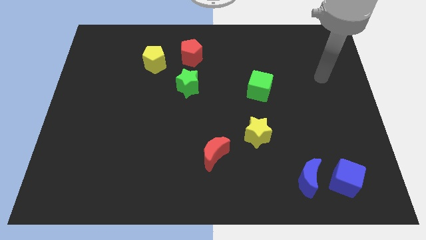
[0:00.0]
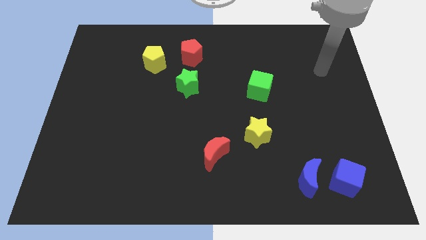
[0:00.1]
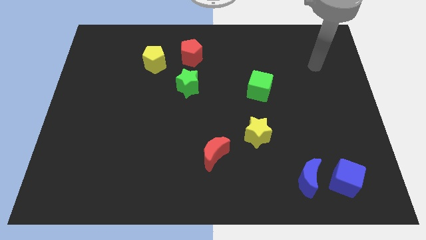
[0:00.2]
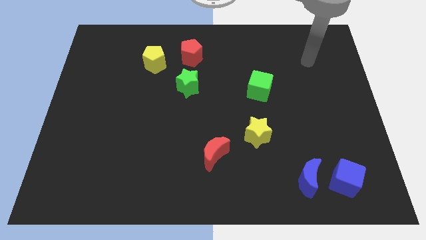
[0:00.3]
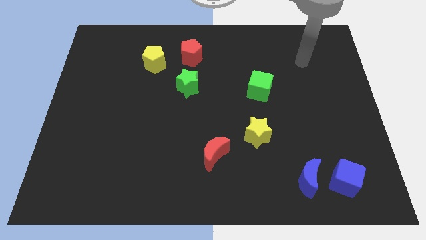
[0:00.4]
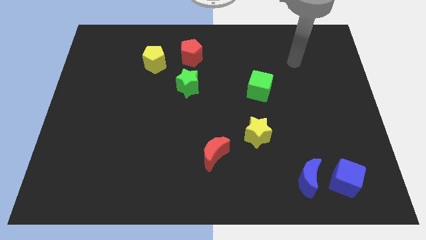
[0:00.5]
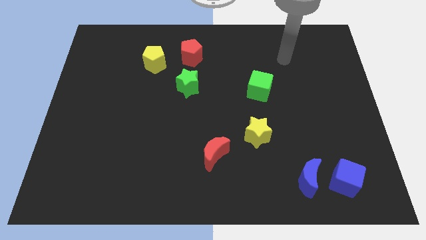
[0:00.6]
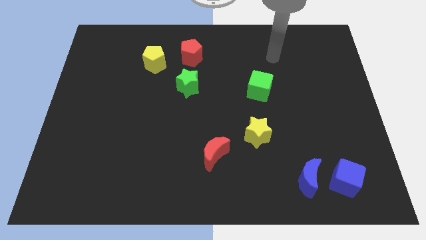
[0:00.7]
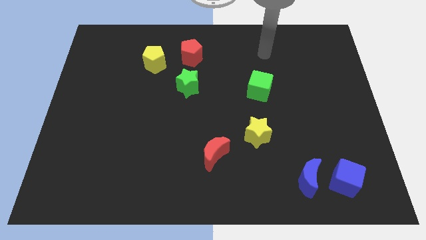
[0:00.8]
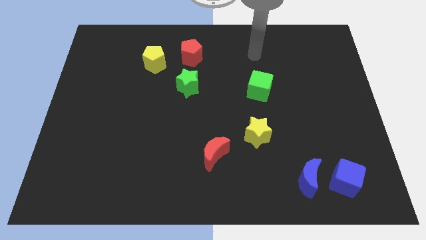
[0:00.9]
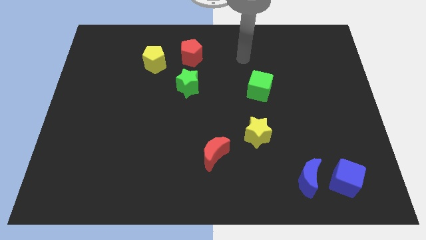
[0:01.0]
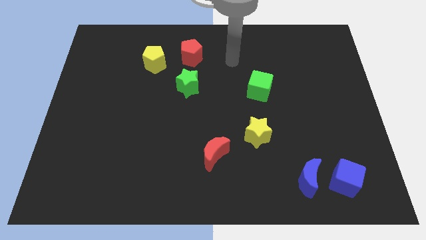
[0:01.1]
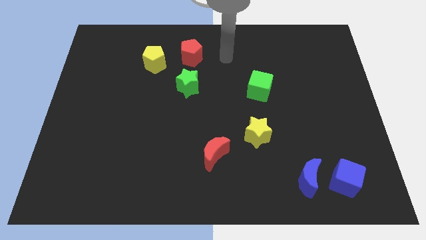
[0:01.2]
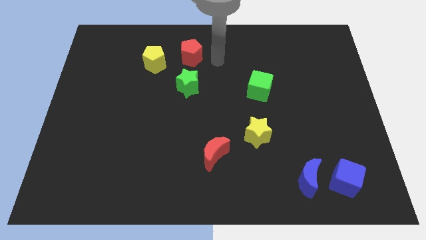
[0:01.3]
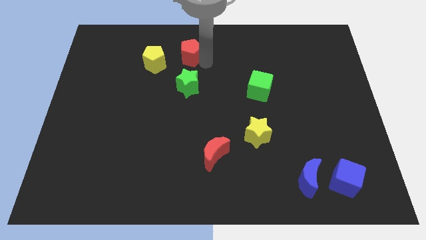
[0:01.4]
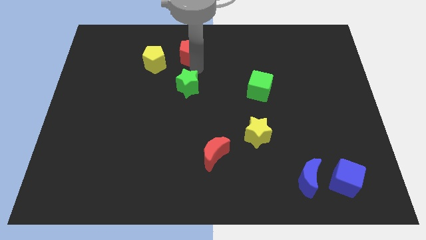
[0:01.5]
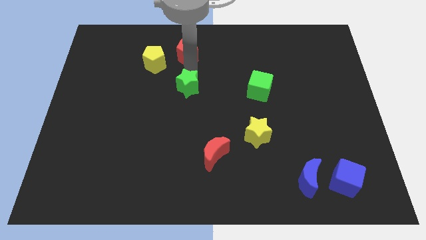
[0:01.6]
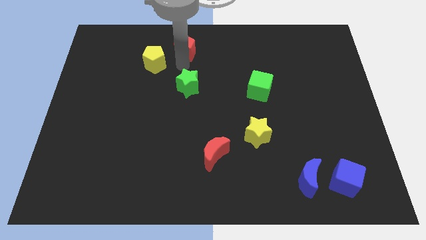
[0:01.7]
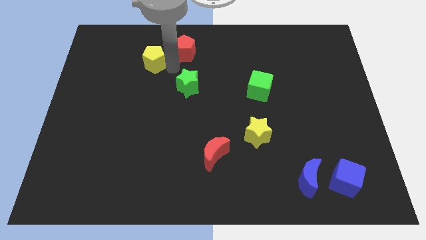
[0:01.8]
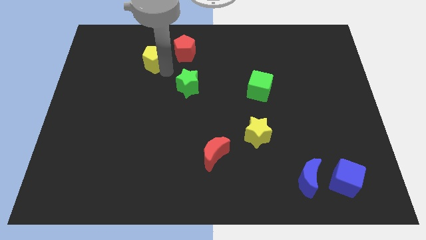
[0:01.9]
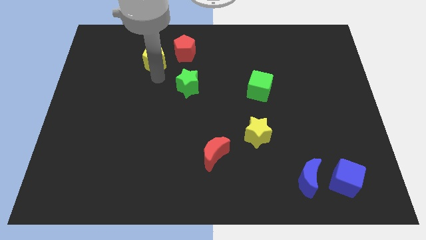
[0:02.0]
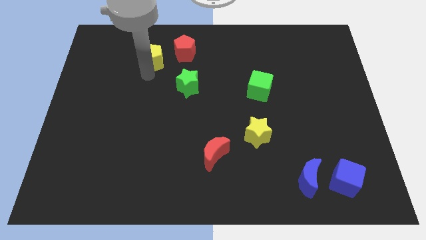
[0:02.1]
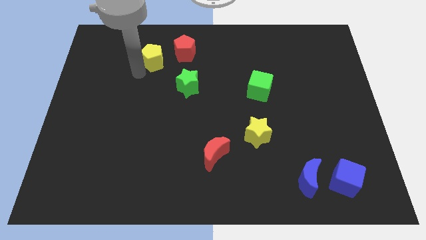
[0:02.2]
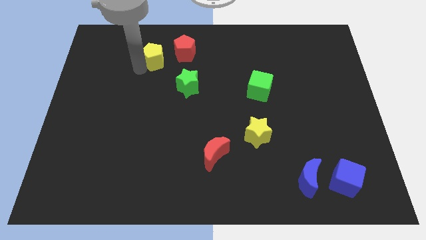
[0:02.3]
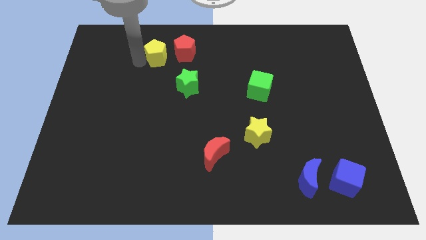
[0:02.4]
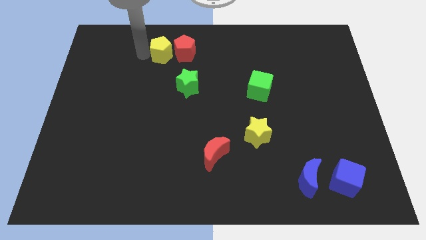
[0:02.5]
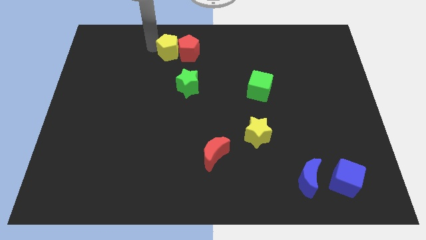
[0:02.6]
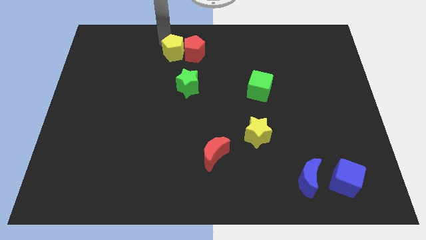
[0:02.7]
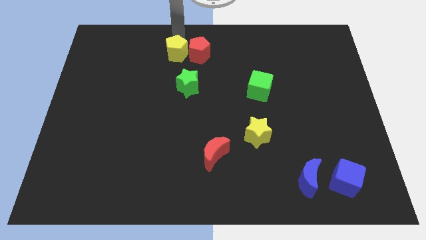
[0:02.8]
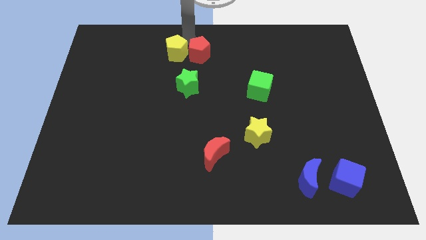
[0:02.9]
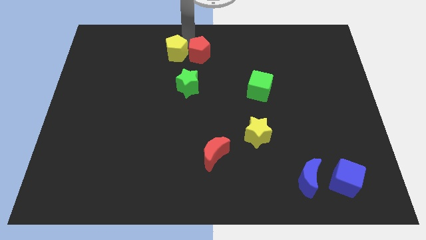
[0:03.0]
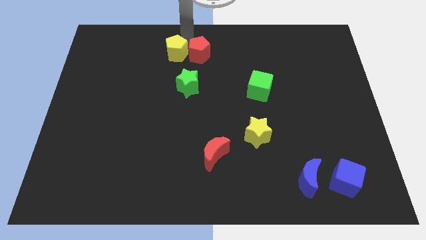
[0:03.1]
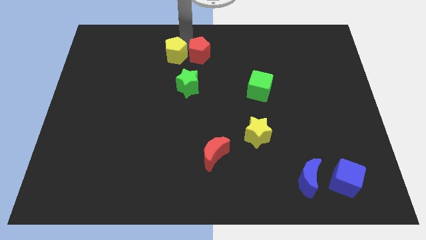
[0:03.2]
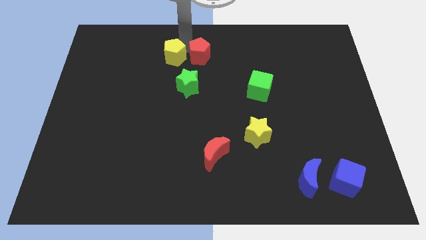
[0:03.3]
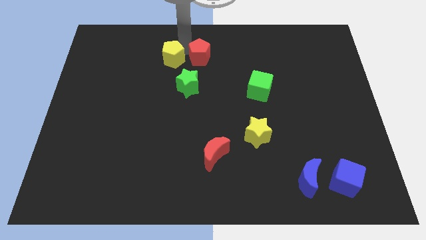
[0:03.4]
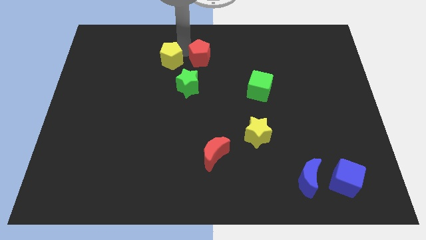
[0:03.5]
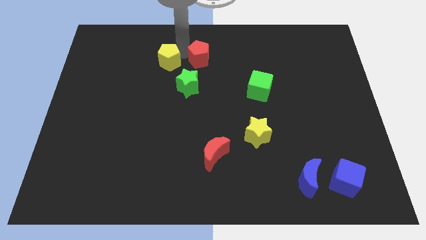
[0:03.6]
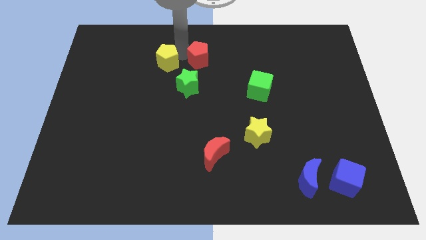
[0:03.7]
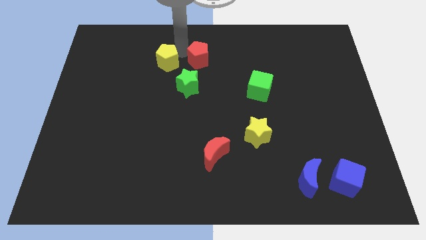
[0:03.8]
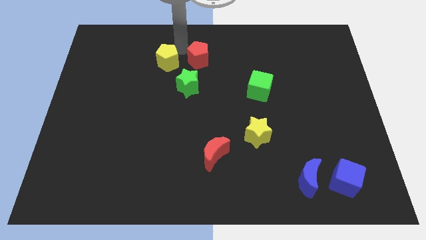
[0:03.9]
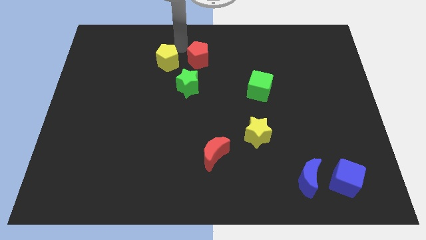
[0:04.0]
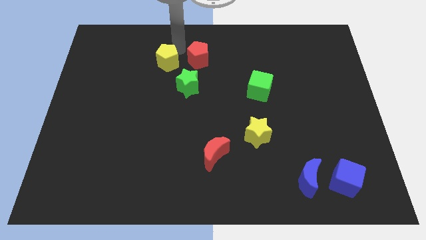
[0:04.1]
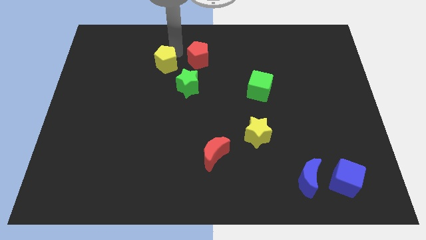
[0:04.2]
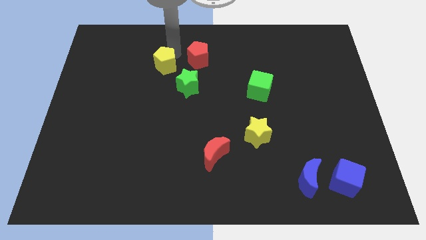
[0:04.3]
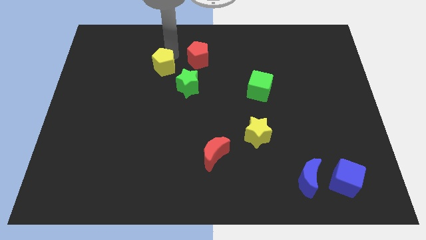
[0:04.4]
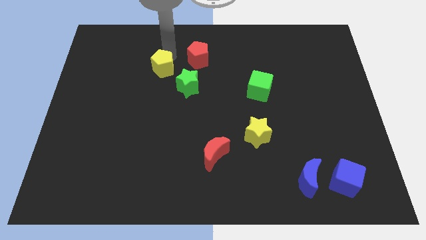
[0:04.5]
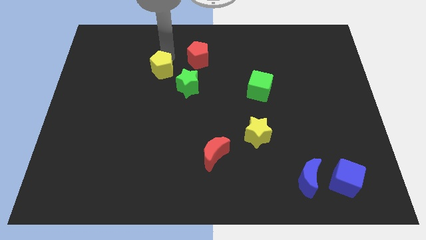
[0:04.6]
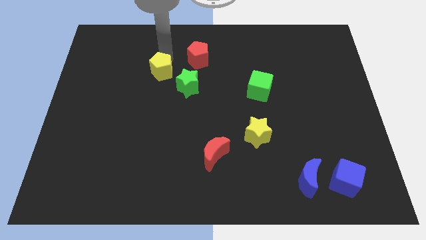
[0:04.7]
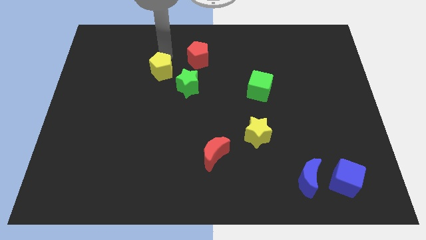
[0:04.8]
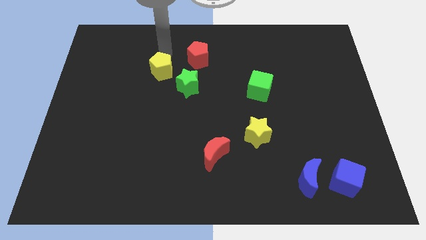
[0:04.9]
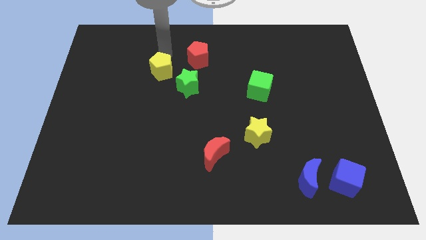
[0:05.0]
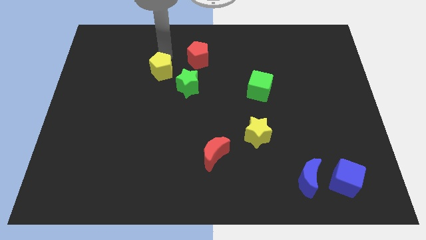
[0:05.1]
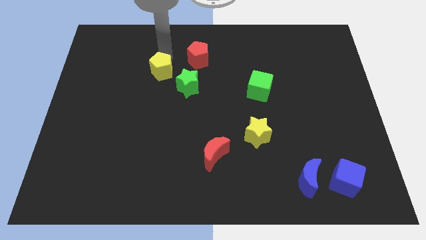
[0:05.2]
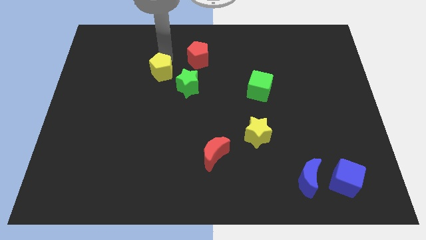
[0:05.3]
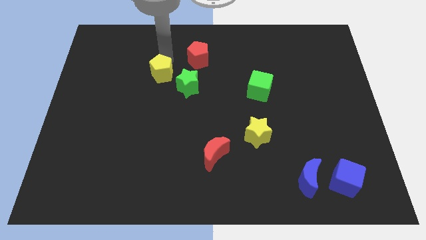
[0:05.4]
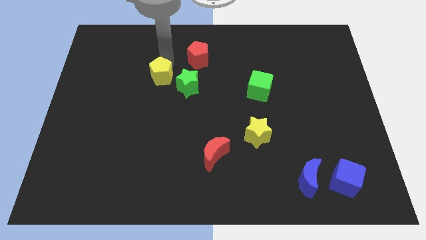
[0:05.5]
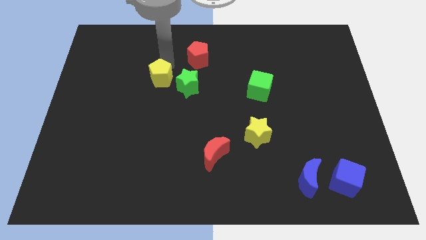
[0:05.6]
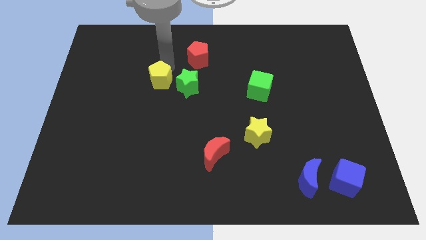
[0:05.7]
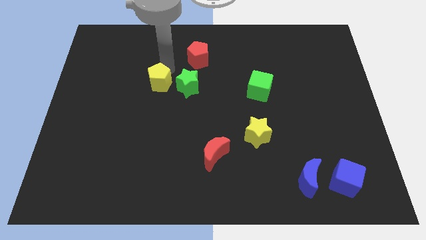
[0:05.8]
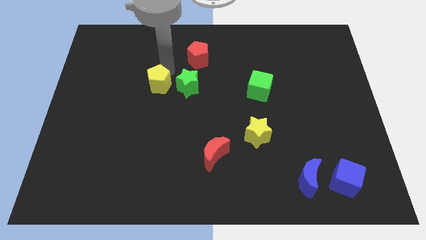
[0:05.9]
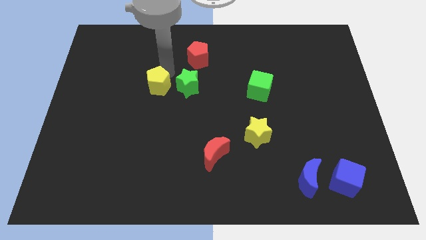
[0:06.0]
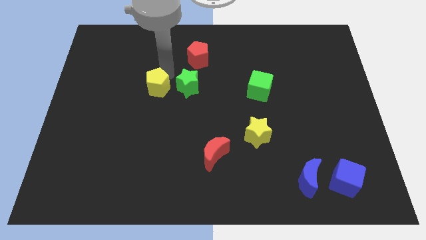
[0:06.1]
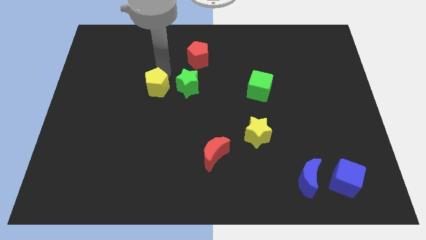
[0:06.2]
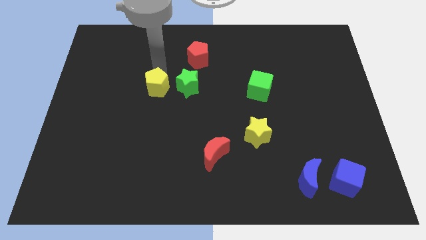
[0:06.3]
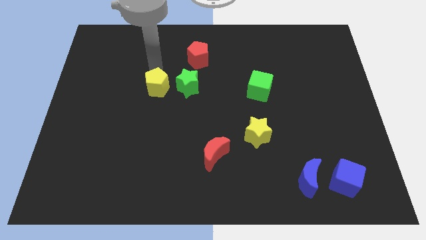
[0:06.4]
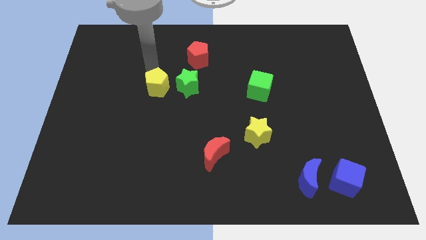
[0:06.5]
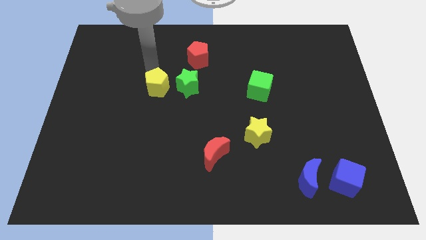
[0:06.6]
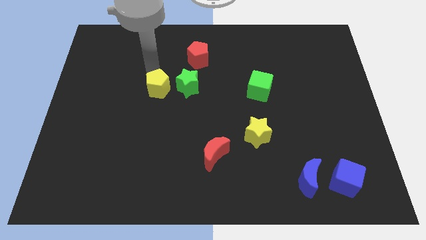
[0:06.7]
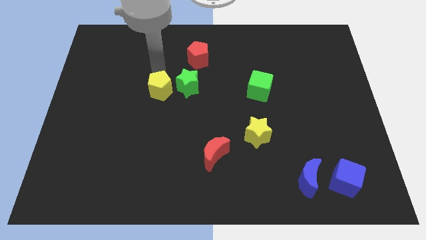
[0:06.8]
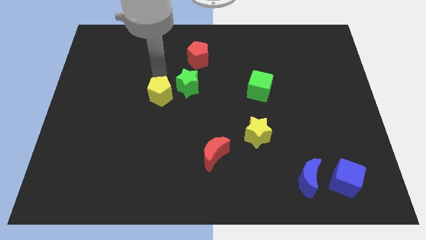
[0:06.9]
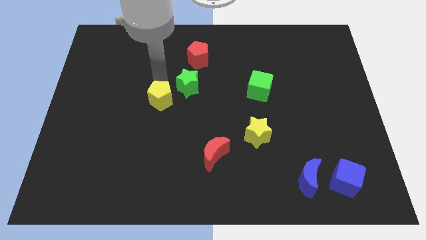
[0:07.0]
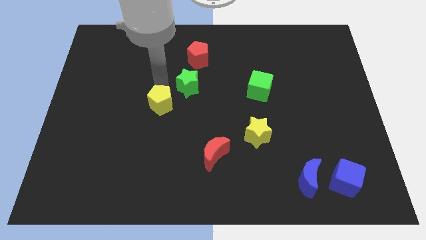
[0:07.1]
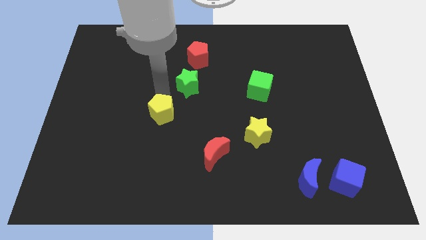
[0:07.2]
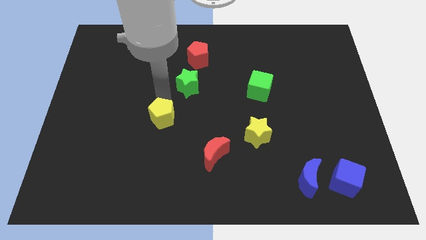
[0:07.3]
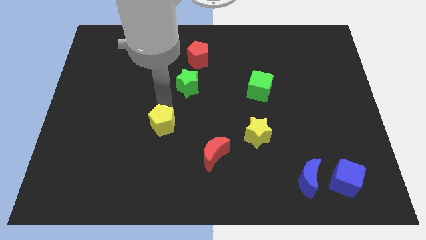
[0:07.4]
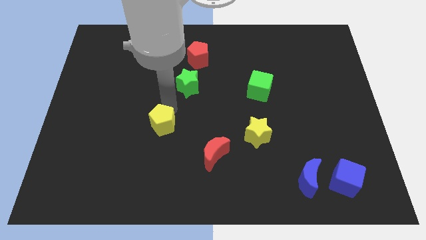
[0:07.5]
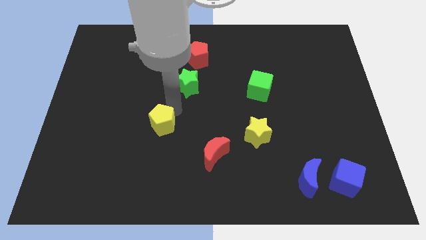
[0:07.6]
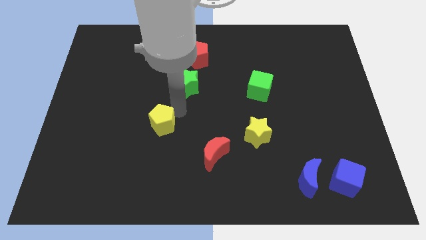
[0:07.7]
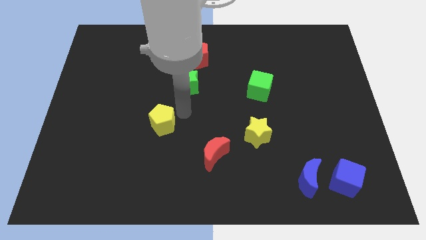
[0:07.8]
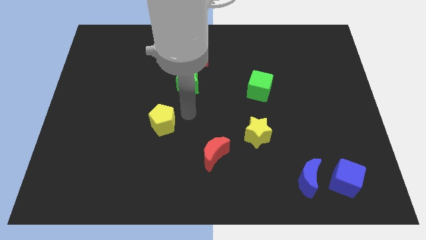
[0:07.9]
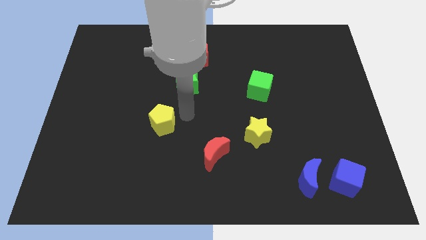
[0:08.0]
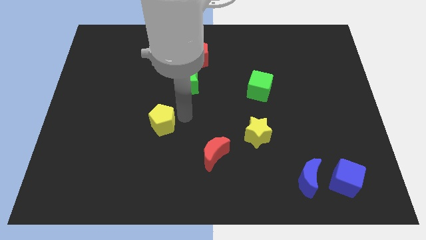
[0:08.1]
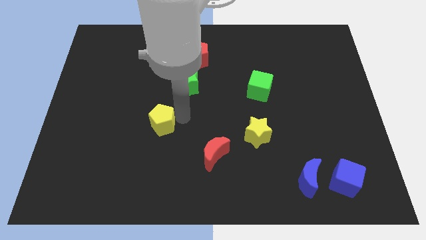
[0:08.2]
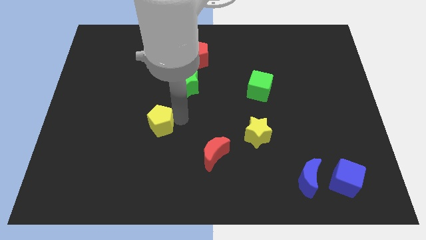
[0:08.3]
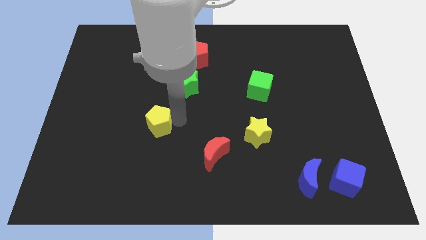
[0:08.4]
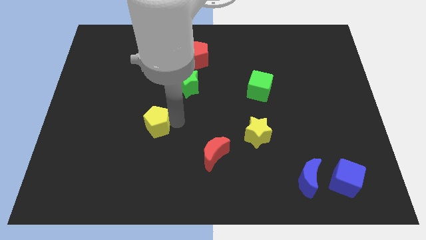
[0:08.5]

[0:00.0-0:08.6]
move the yellow pentagon downwards
